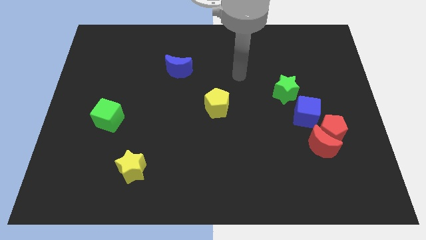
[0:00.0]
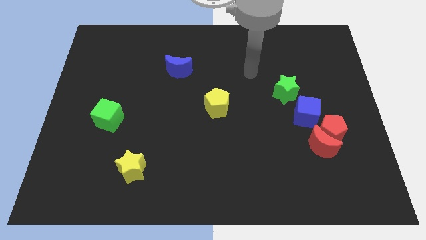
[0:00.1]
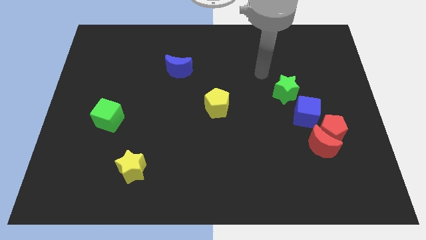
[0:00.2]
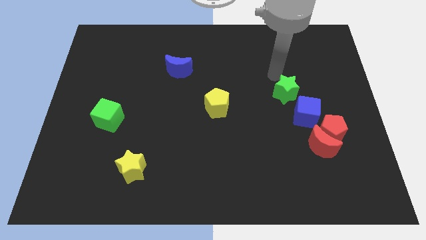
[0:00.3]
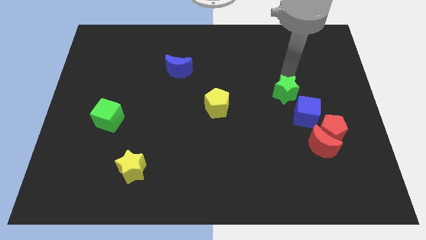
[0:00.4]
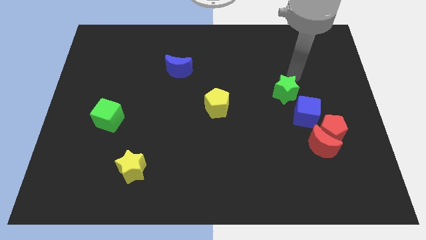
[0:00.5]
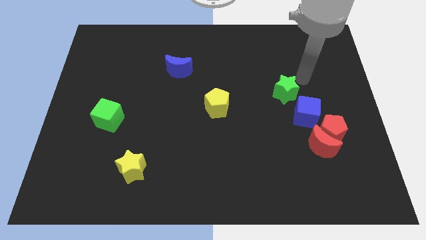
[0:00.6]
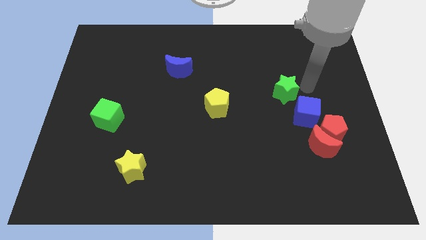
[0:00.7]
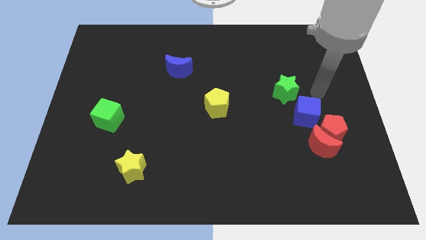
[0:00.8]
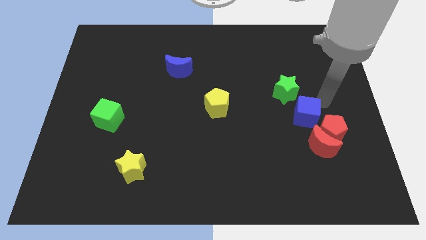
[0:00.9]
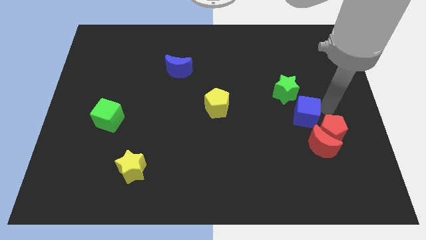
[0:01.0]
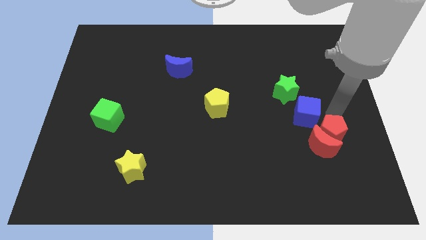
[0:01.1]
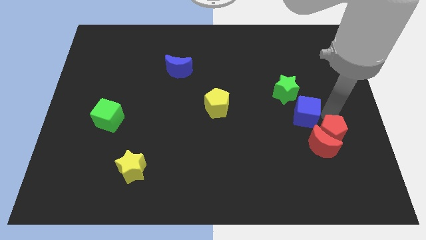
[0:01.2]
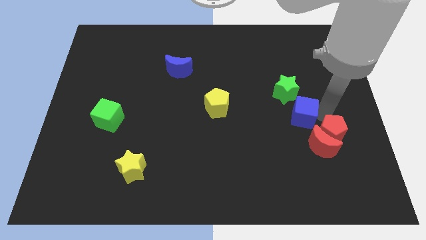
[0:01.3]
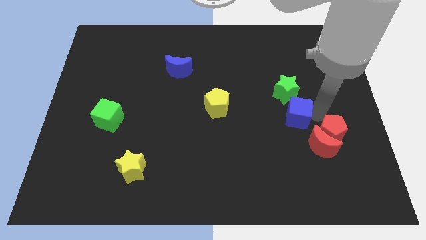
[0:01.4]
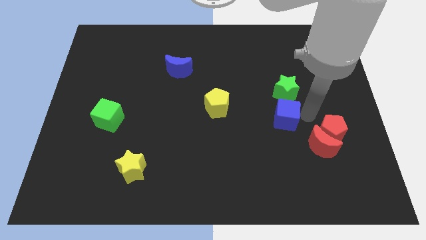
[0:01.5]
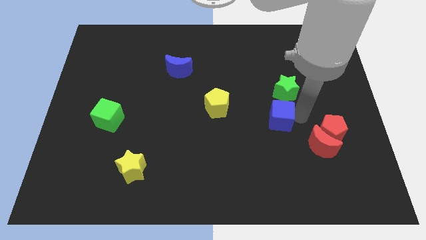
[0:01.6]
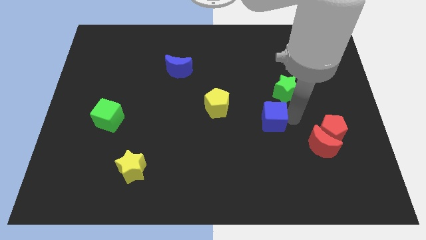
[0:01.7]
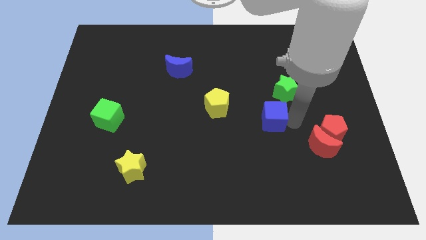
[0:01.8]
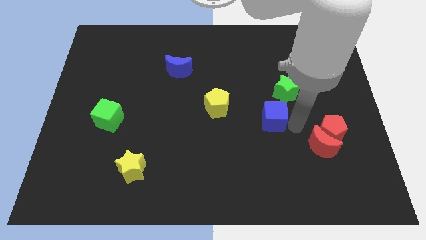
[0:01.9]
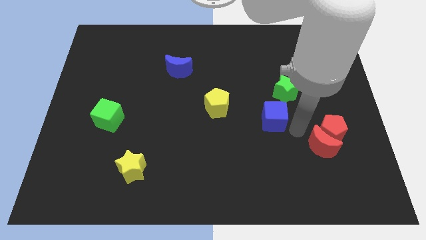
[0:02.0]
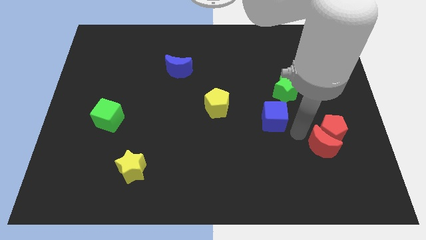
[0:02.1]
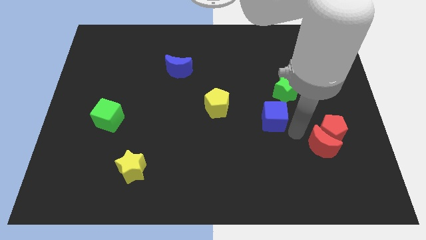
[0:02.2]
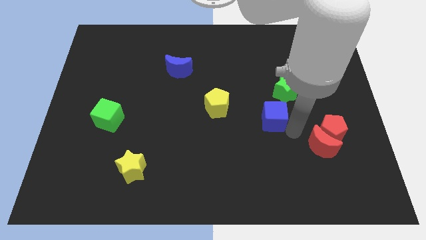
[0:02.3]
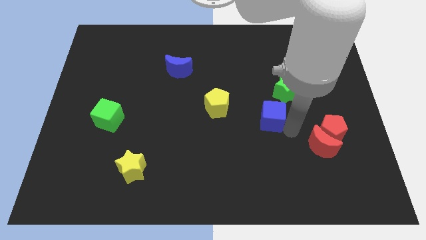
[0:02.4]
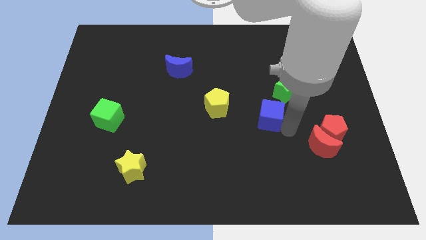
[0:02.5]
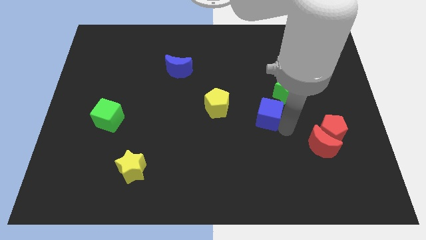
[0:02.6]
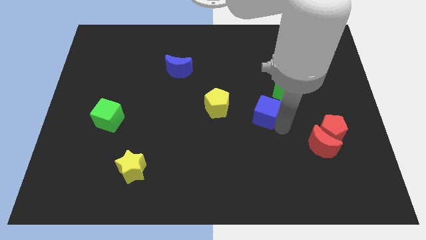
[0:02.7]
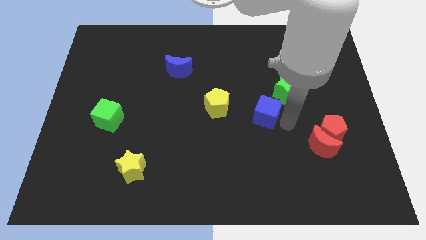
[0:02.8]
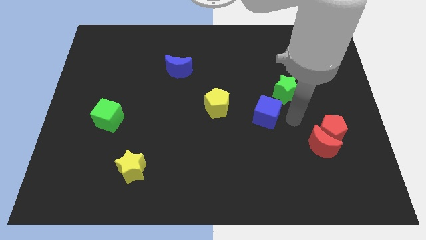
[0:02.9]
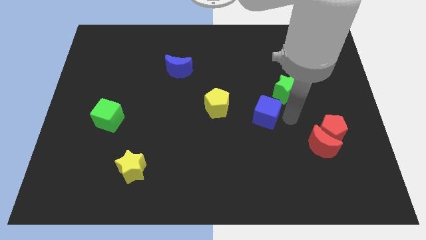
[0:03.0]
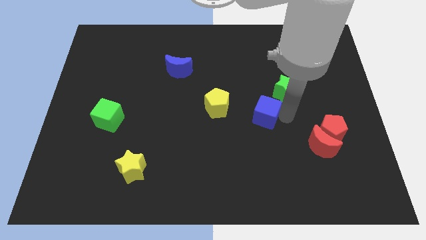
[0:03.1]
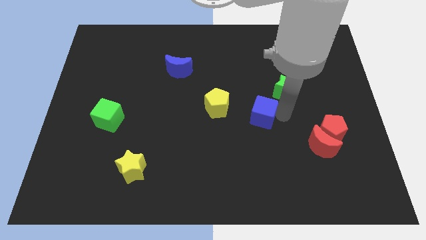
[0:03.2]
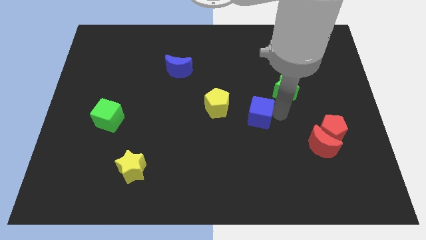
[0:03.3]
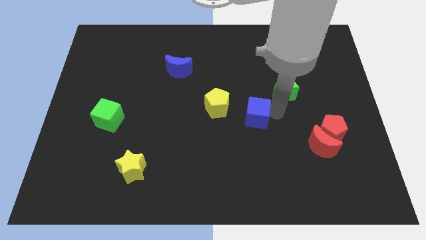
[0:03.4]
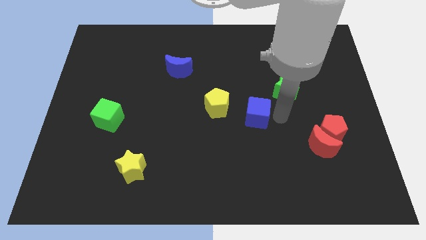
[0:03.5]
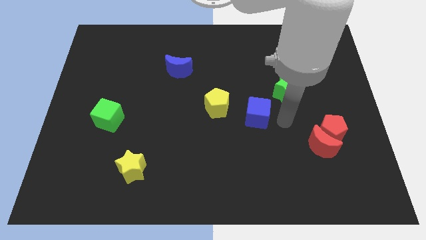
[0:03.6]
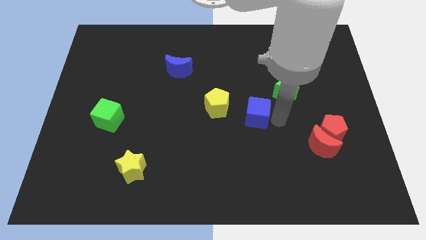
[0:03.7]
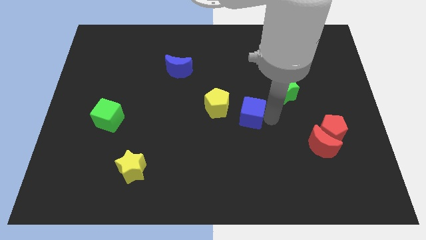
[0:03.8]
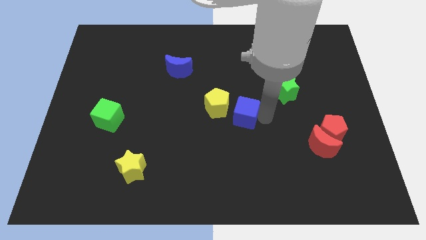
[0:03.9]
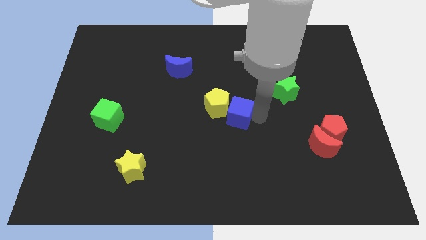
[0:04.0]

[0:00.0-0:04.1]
move the blue cube to the yellow pentagon

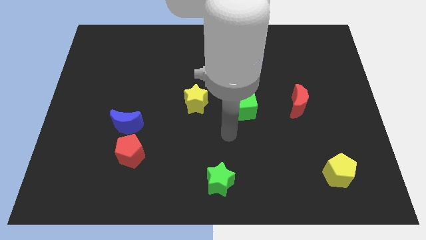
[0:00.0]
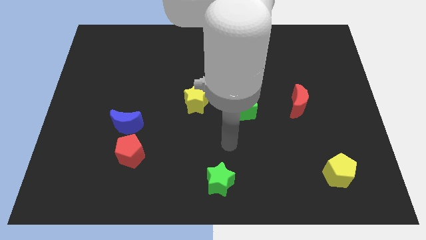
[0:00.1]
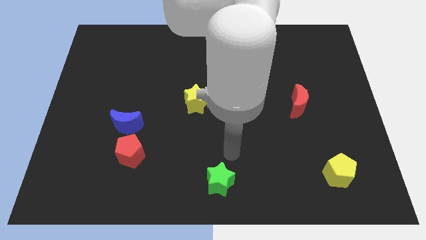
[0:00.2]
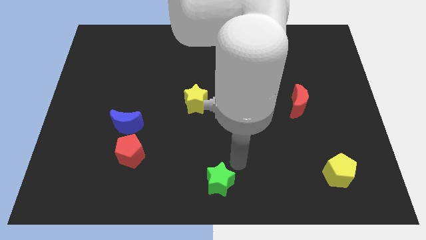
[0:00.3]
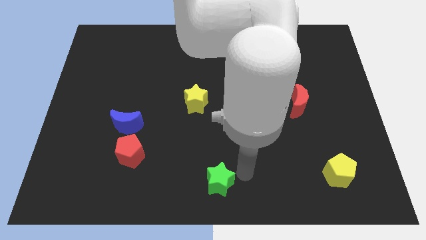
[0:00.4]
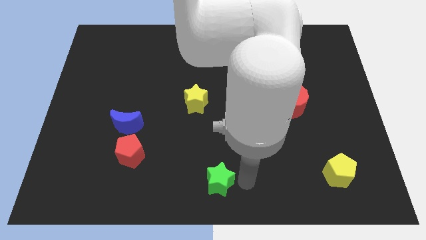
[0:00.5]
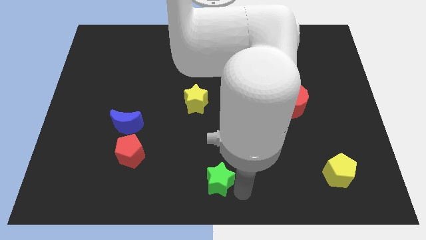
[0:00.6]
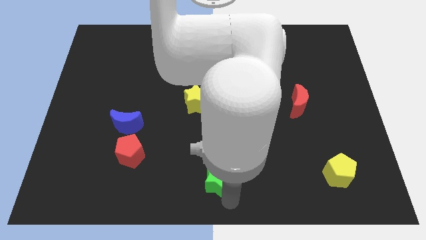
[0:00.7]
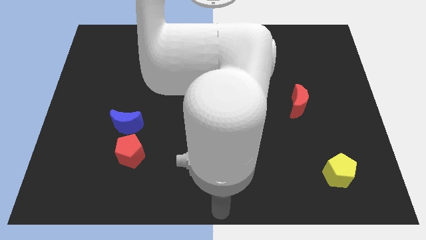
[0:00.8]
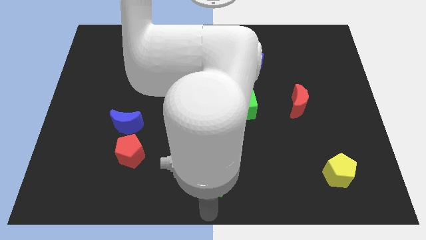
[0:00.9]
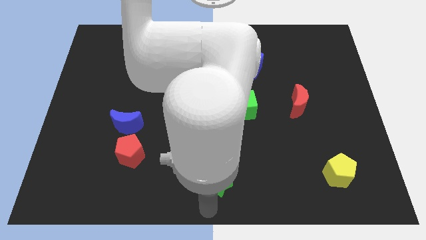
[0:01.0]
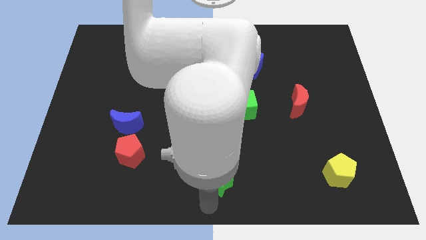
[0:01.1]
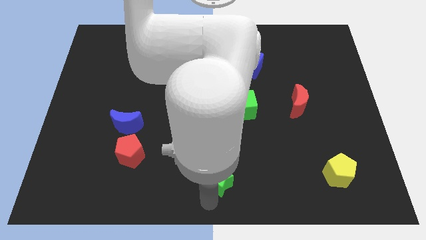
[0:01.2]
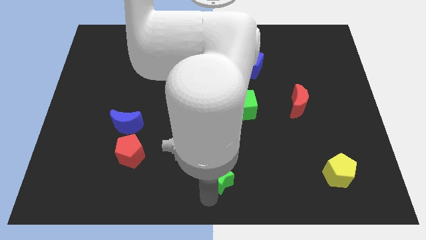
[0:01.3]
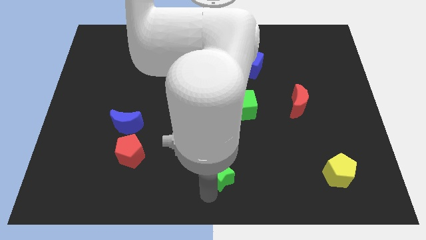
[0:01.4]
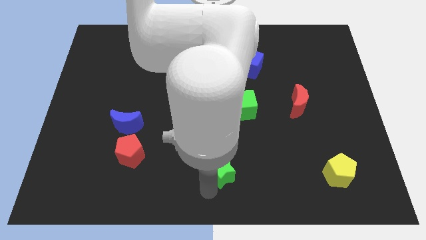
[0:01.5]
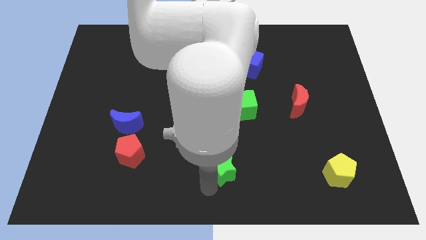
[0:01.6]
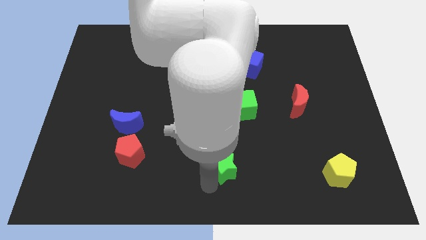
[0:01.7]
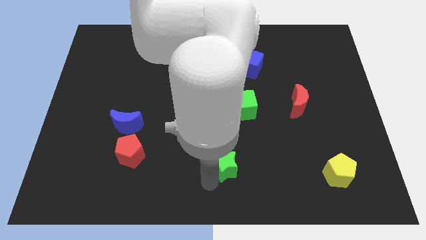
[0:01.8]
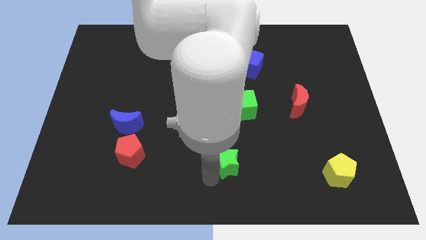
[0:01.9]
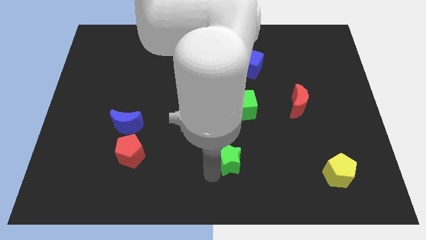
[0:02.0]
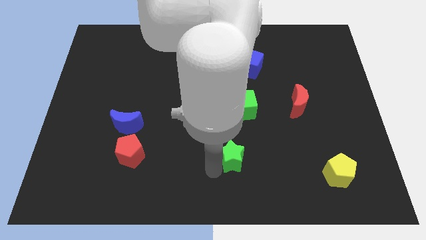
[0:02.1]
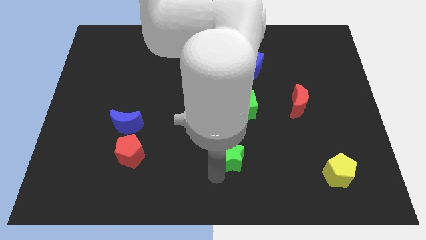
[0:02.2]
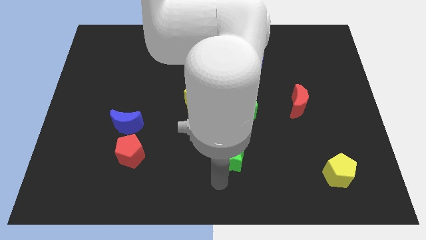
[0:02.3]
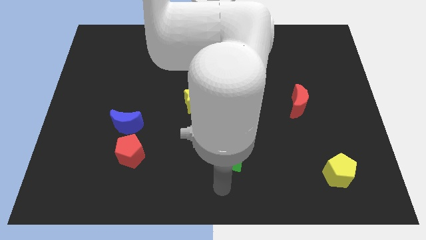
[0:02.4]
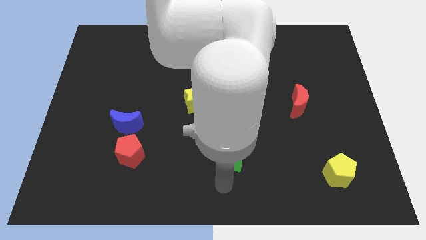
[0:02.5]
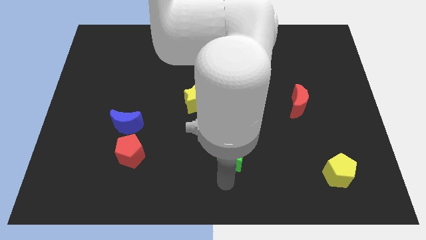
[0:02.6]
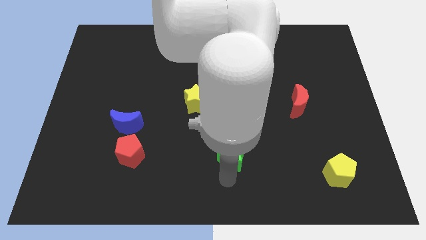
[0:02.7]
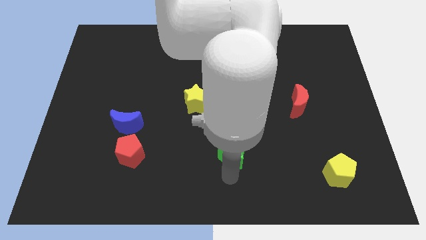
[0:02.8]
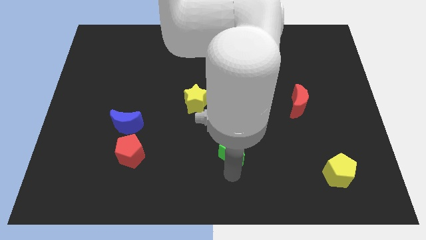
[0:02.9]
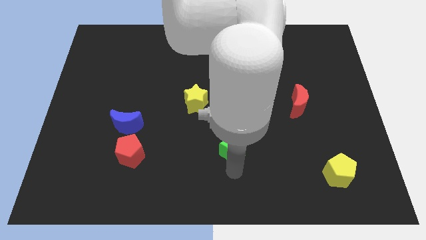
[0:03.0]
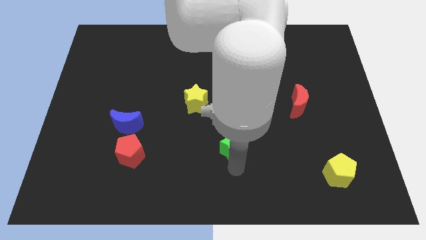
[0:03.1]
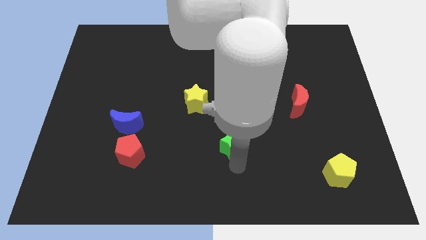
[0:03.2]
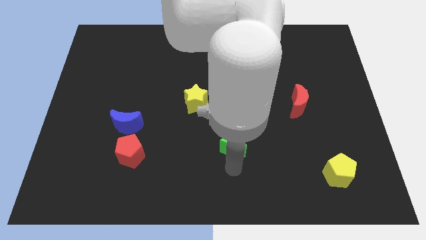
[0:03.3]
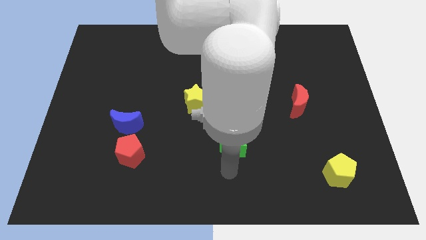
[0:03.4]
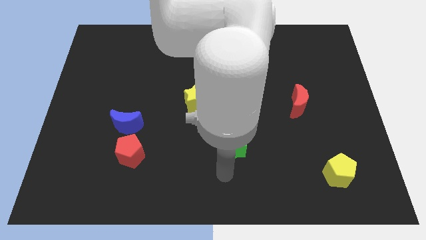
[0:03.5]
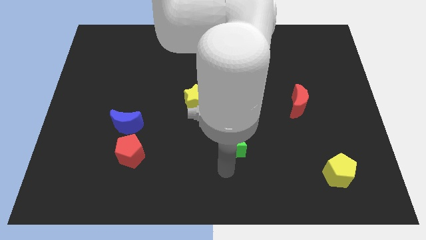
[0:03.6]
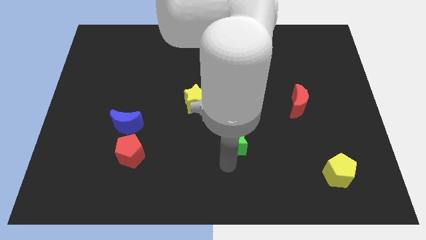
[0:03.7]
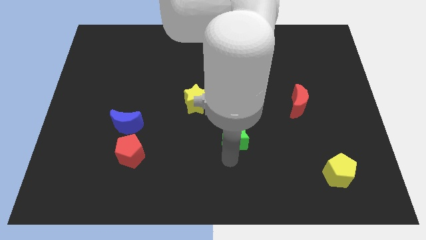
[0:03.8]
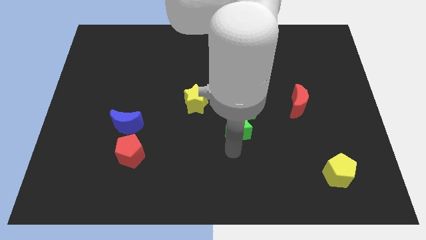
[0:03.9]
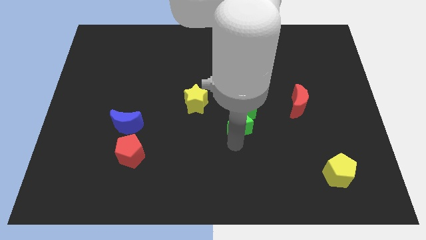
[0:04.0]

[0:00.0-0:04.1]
move the green star close to the green cube

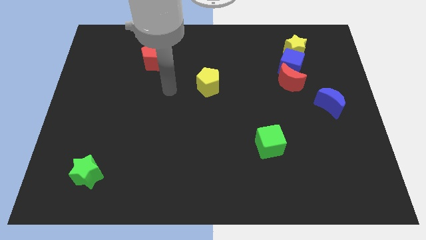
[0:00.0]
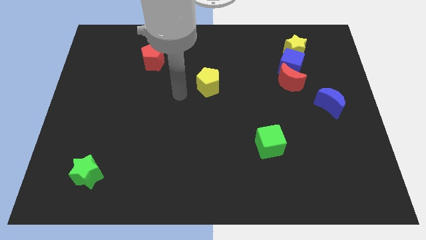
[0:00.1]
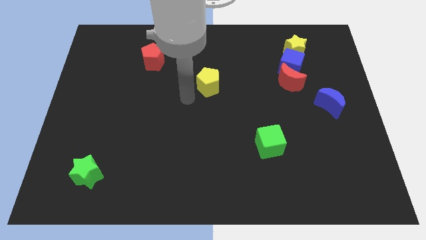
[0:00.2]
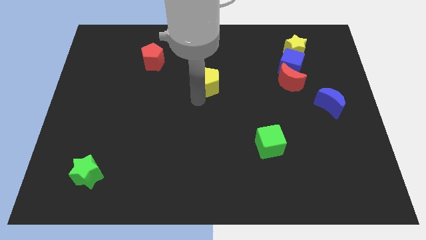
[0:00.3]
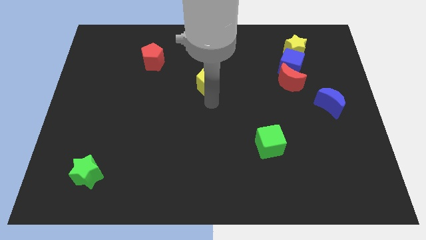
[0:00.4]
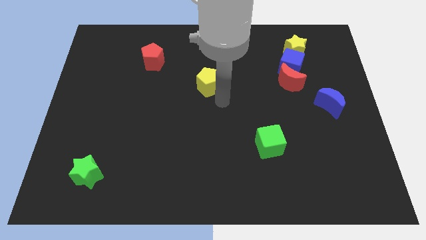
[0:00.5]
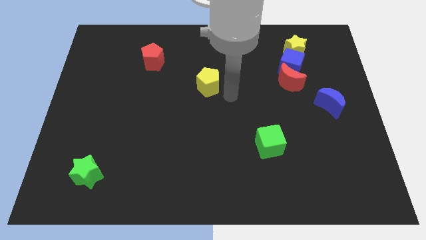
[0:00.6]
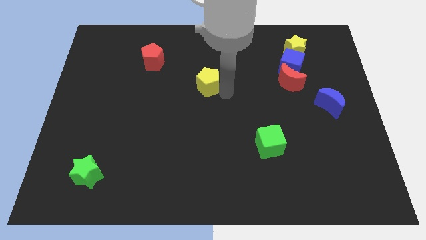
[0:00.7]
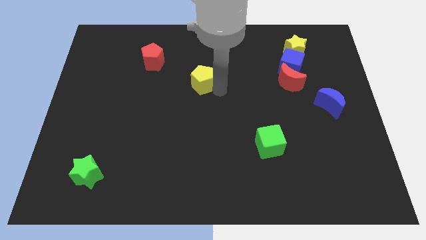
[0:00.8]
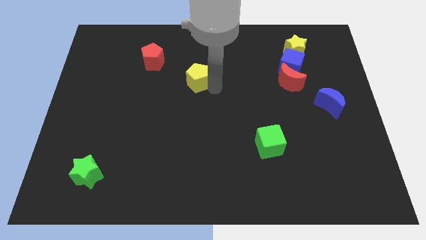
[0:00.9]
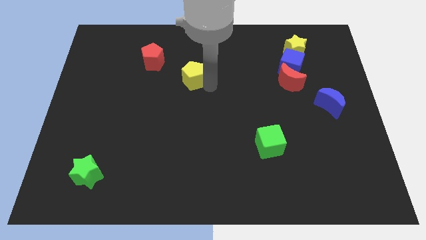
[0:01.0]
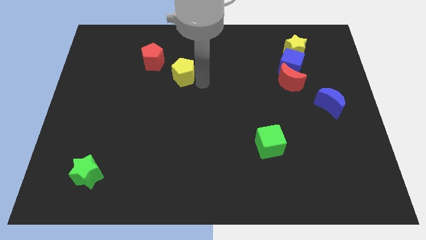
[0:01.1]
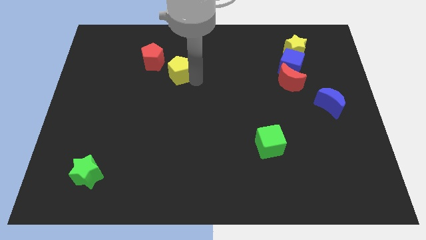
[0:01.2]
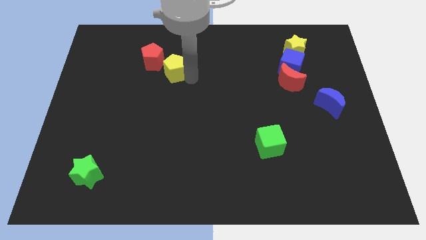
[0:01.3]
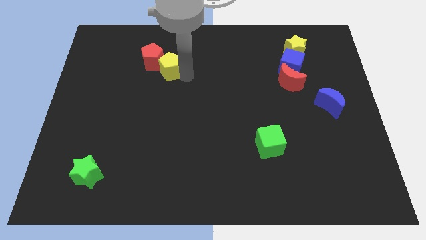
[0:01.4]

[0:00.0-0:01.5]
push the yellow pentagon close to the red pentagon
